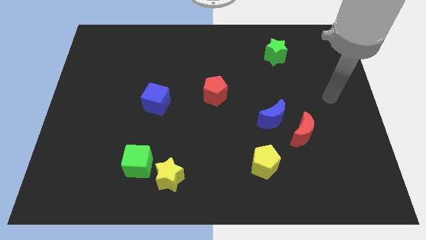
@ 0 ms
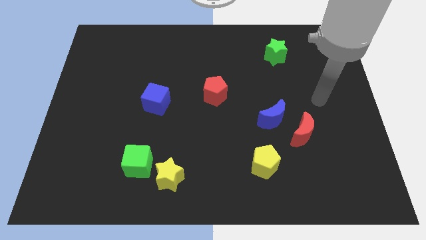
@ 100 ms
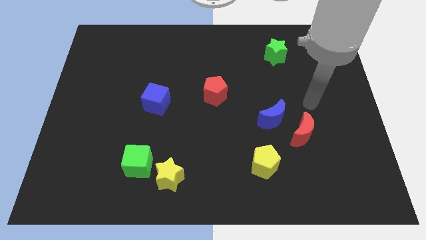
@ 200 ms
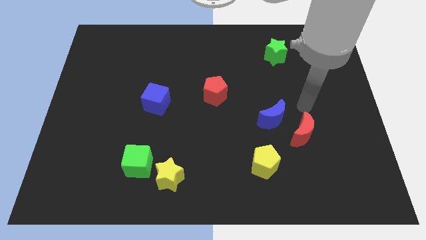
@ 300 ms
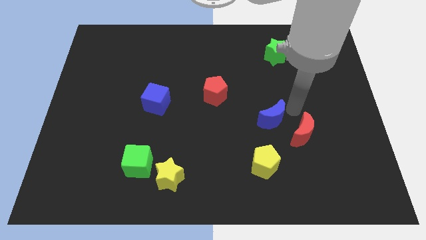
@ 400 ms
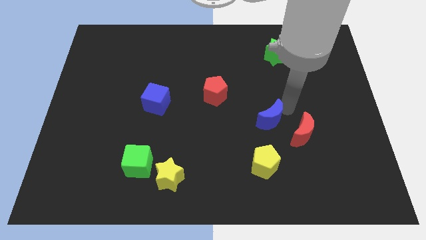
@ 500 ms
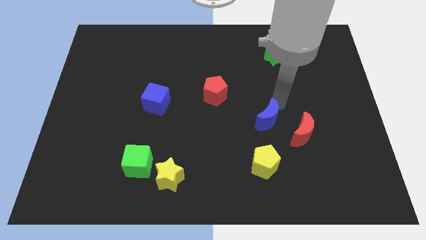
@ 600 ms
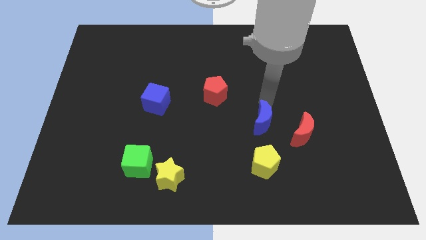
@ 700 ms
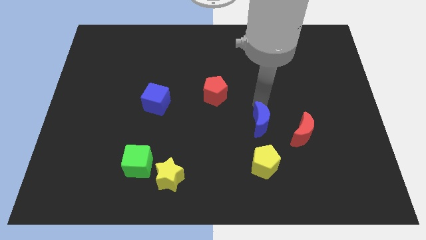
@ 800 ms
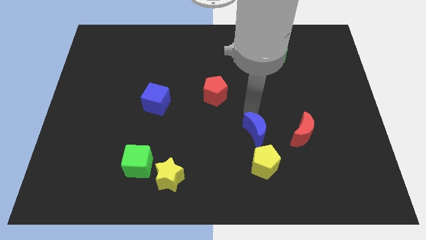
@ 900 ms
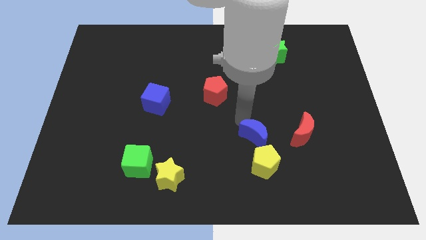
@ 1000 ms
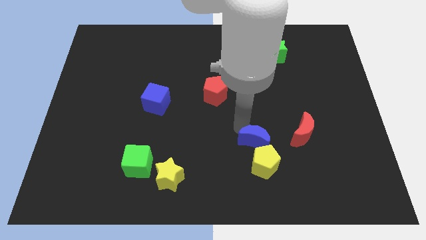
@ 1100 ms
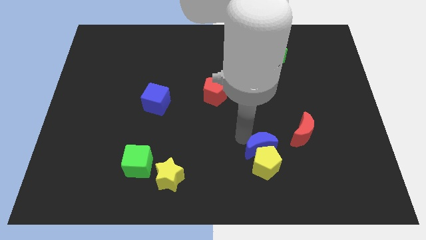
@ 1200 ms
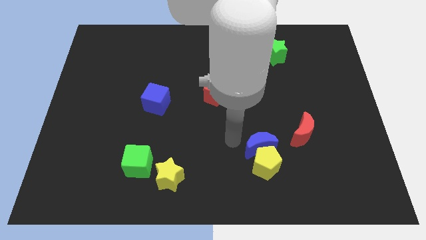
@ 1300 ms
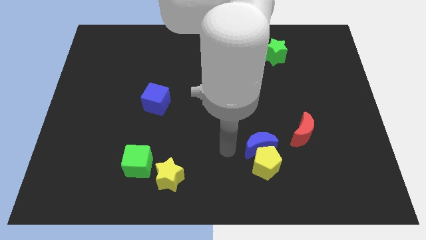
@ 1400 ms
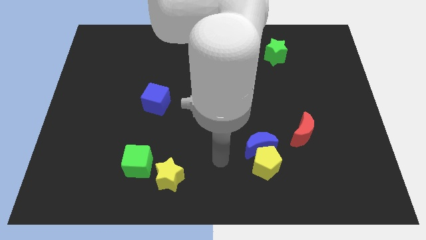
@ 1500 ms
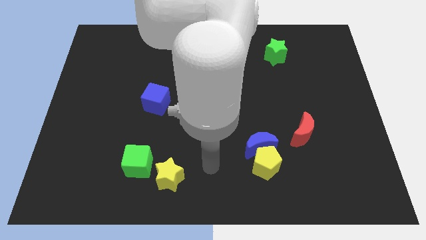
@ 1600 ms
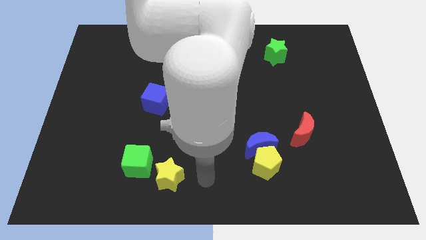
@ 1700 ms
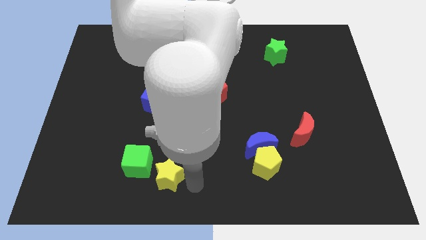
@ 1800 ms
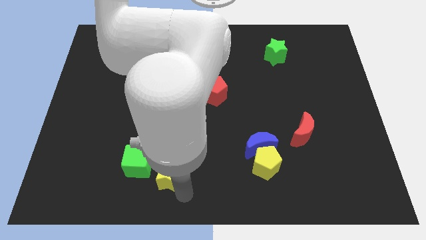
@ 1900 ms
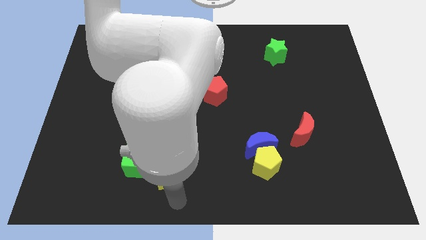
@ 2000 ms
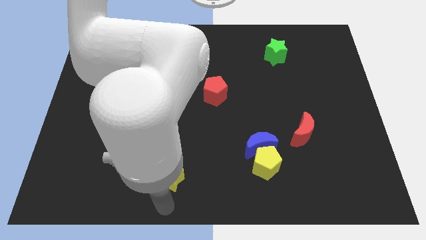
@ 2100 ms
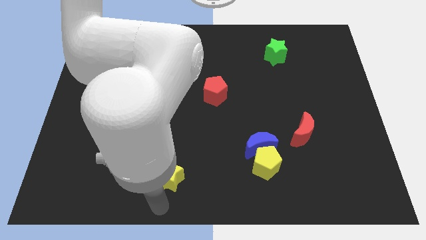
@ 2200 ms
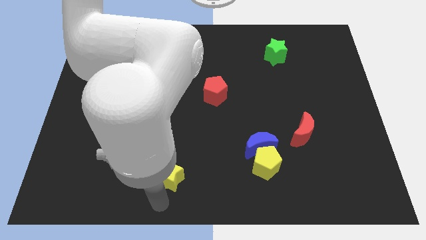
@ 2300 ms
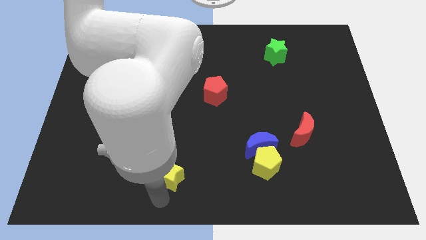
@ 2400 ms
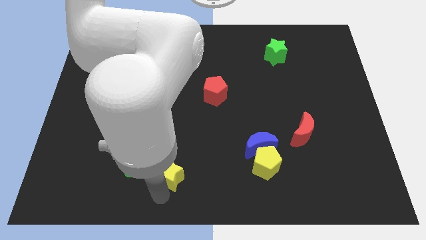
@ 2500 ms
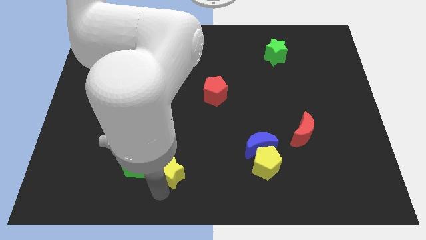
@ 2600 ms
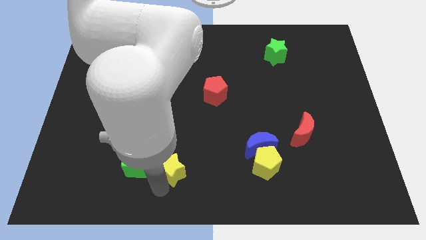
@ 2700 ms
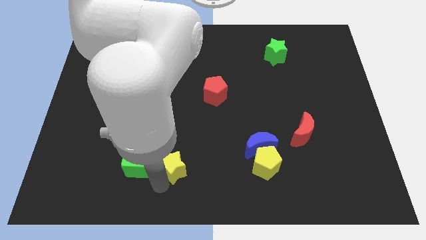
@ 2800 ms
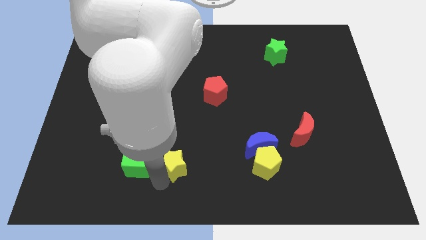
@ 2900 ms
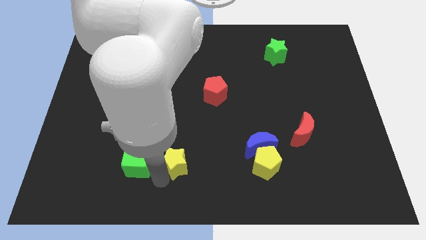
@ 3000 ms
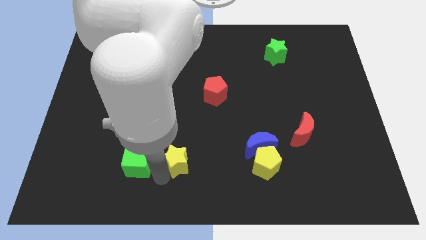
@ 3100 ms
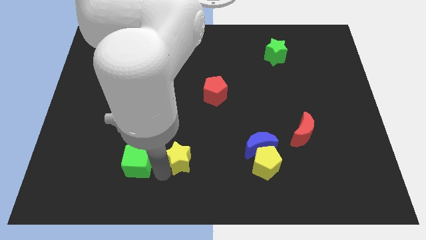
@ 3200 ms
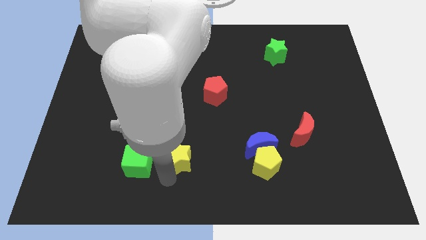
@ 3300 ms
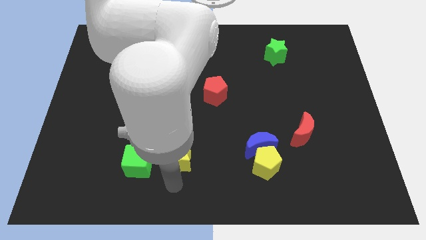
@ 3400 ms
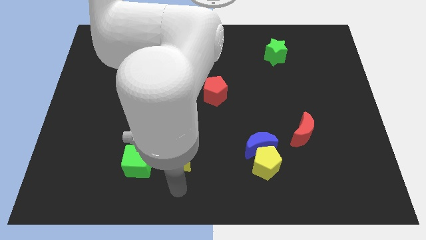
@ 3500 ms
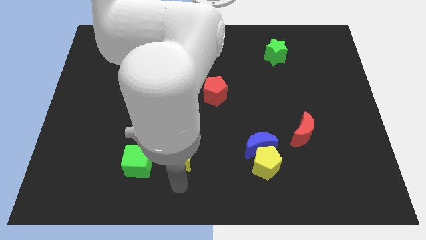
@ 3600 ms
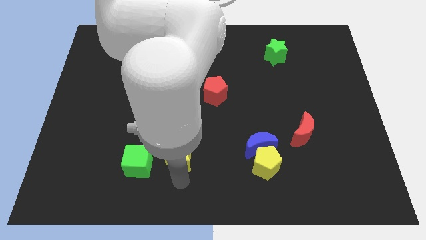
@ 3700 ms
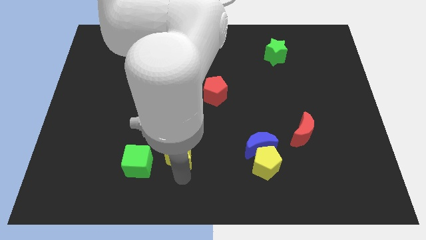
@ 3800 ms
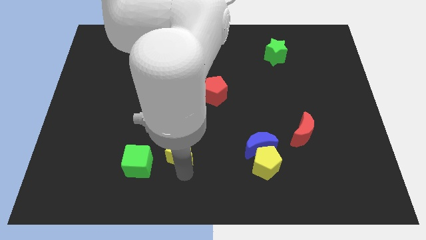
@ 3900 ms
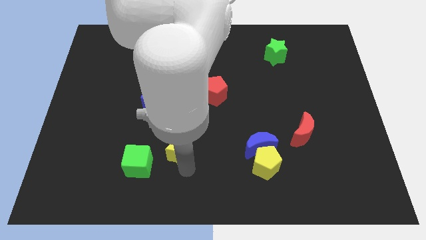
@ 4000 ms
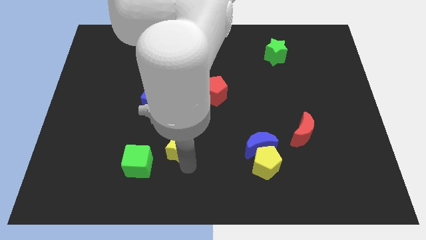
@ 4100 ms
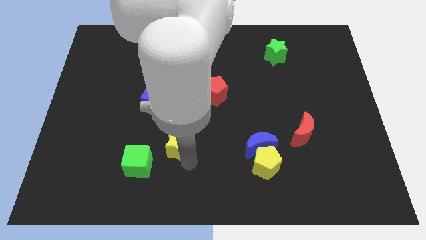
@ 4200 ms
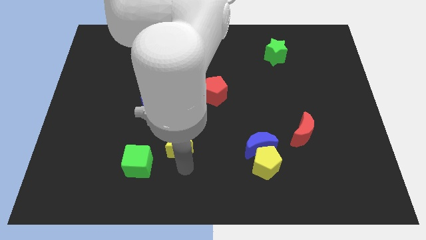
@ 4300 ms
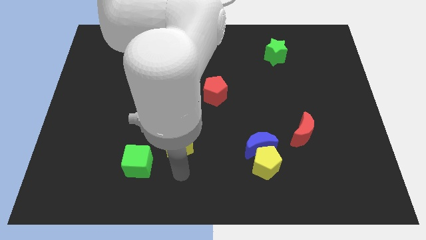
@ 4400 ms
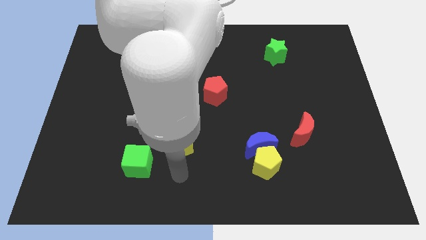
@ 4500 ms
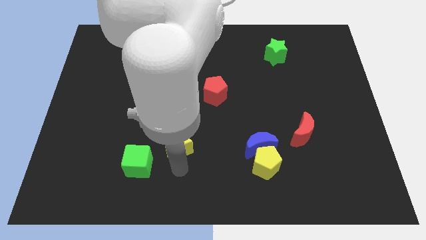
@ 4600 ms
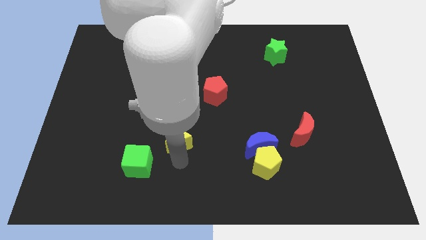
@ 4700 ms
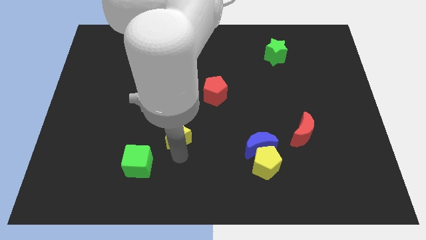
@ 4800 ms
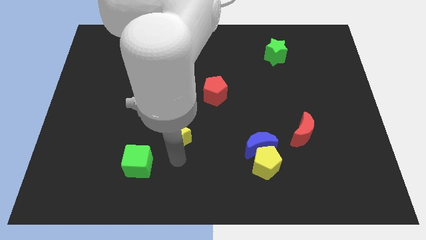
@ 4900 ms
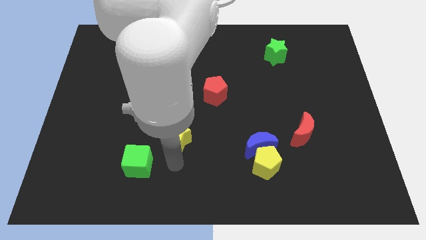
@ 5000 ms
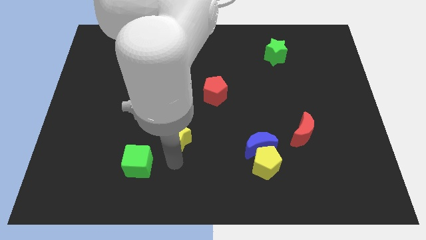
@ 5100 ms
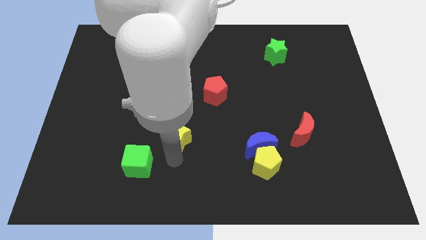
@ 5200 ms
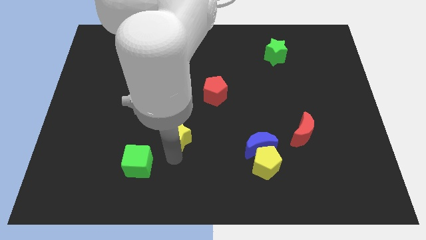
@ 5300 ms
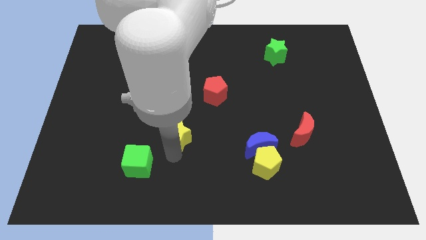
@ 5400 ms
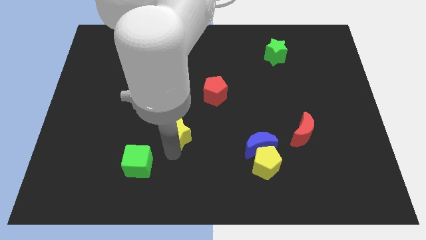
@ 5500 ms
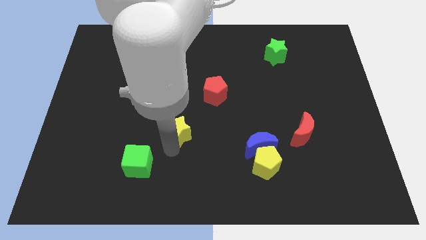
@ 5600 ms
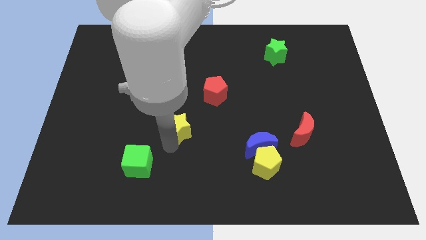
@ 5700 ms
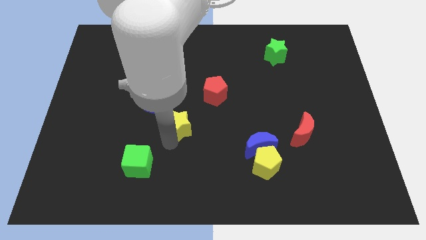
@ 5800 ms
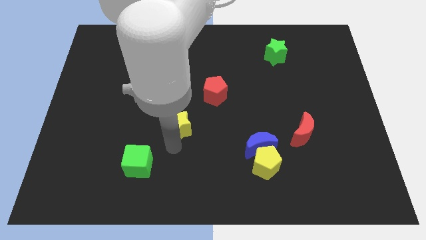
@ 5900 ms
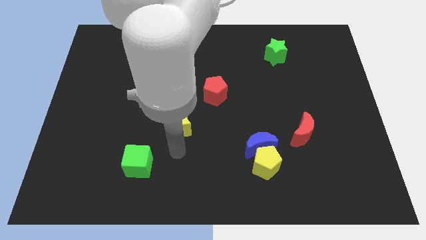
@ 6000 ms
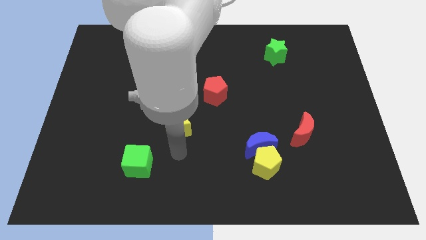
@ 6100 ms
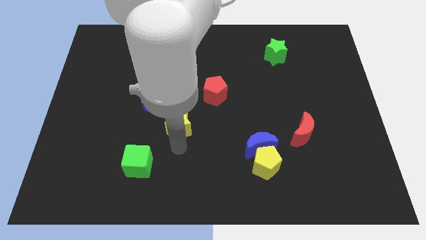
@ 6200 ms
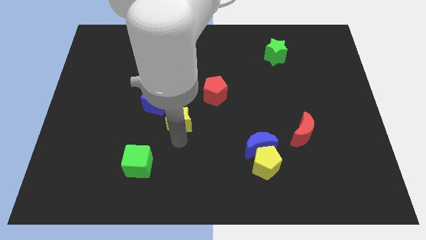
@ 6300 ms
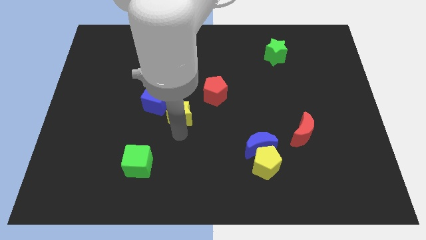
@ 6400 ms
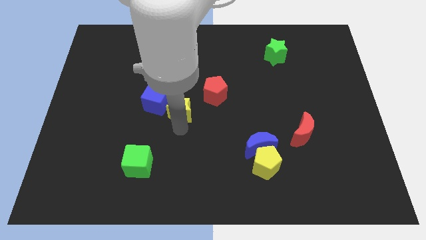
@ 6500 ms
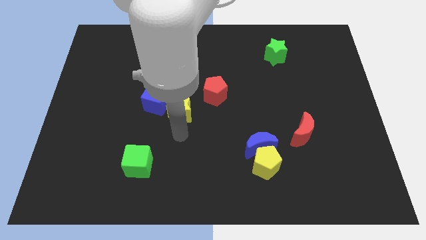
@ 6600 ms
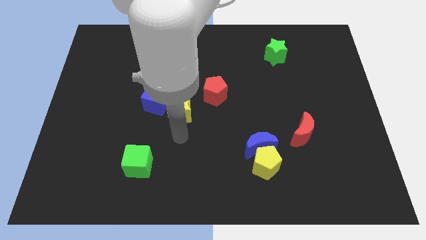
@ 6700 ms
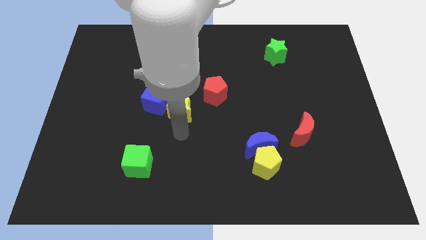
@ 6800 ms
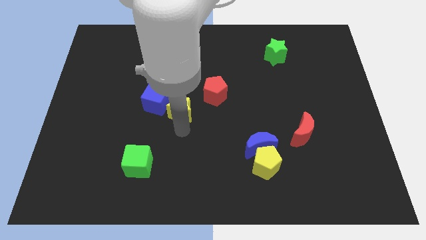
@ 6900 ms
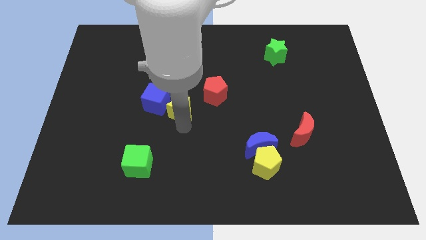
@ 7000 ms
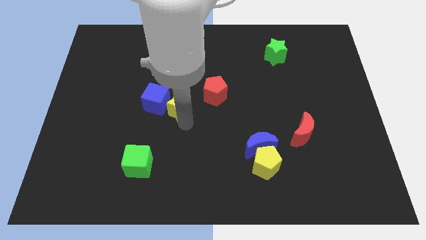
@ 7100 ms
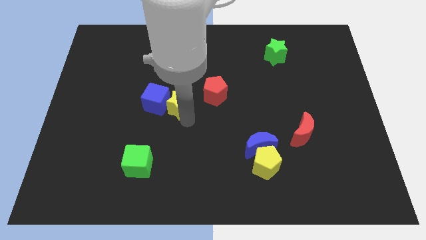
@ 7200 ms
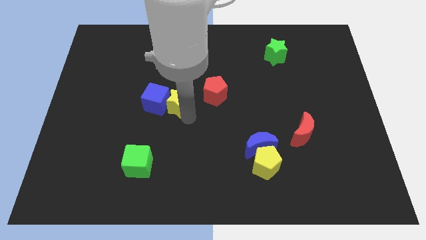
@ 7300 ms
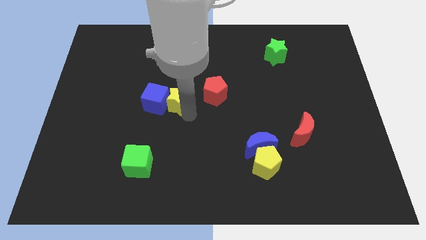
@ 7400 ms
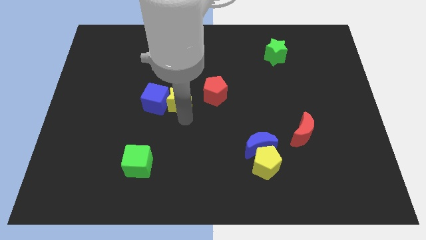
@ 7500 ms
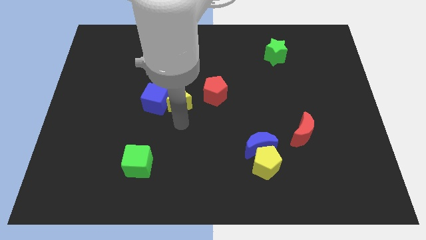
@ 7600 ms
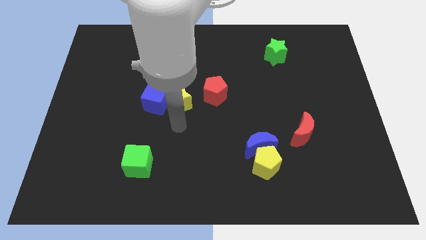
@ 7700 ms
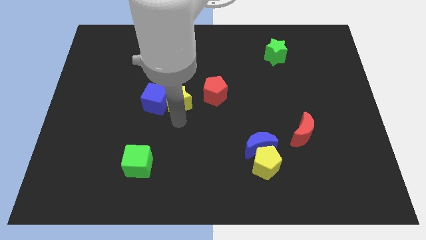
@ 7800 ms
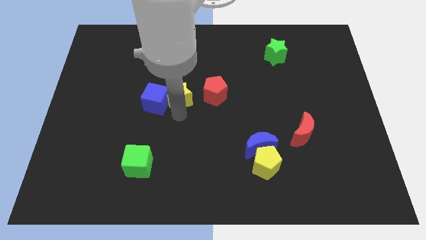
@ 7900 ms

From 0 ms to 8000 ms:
slide the yellow star up
